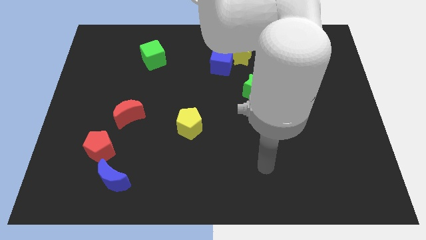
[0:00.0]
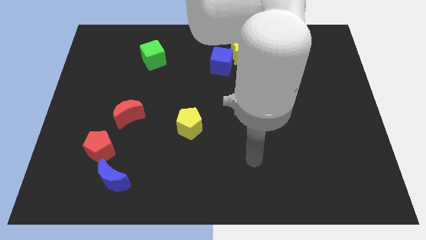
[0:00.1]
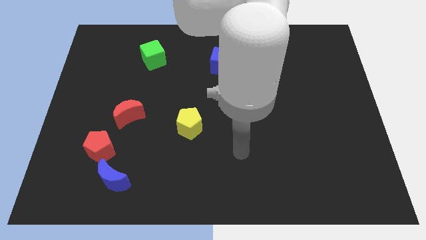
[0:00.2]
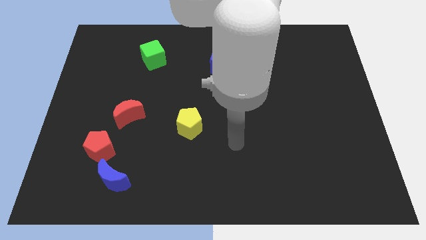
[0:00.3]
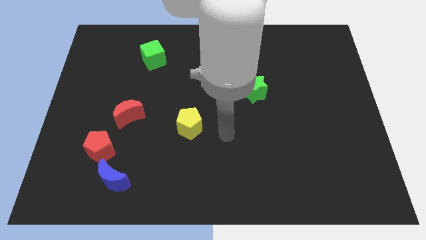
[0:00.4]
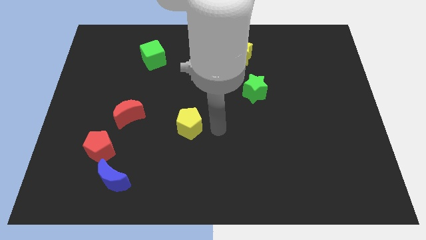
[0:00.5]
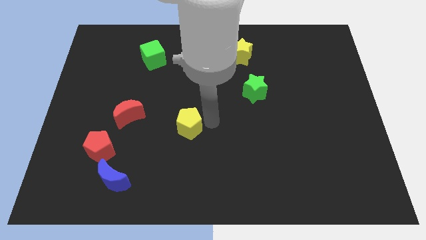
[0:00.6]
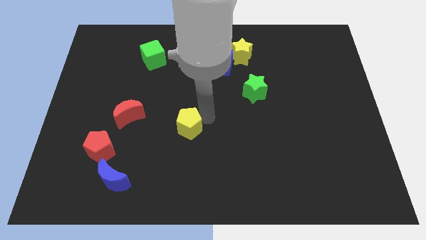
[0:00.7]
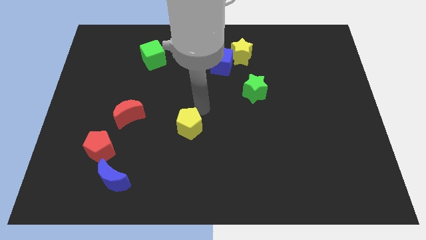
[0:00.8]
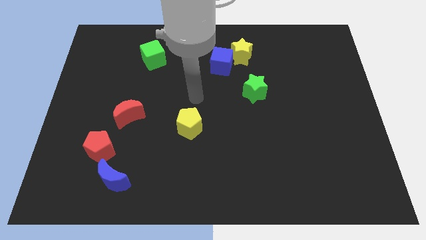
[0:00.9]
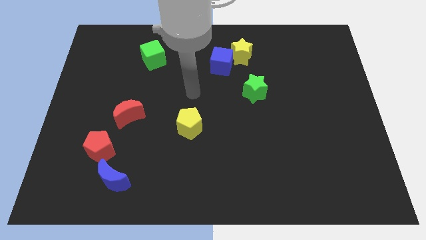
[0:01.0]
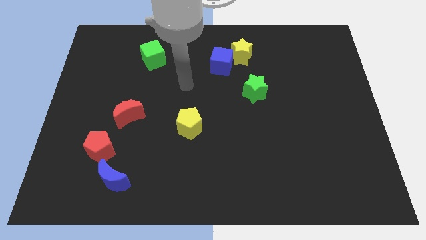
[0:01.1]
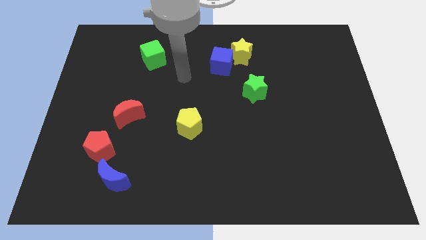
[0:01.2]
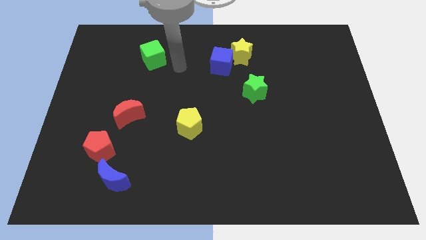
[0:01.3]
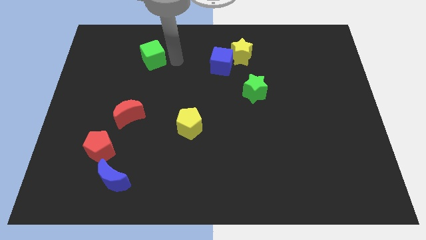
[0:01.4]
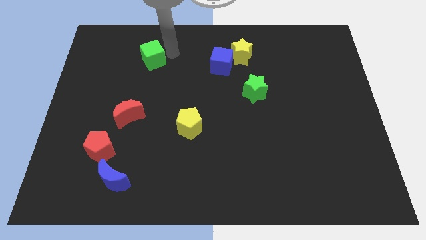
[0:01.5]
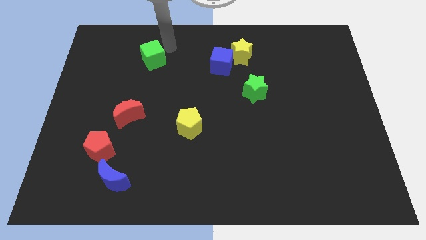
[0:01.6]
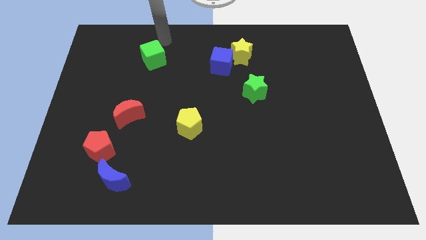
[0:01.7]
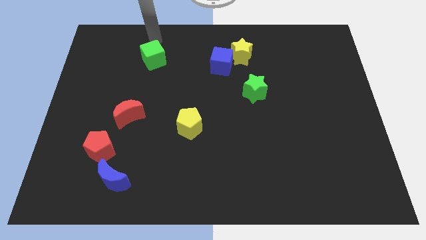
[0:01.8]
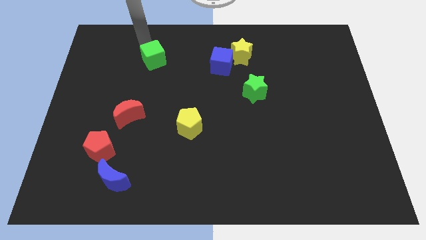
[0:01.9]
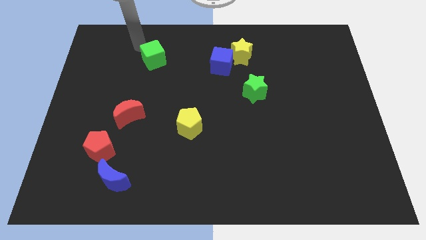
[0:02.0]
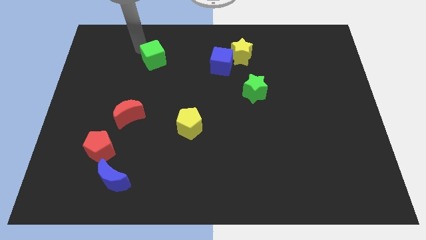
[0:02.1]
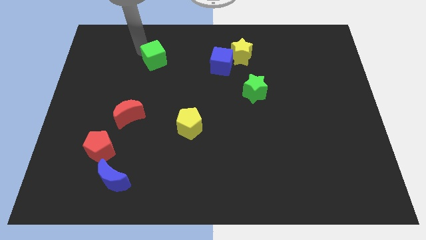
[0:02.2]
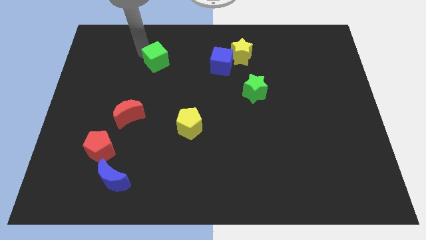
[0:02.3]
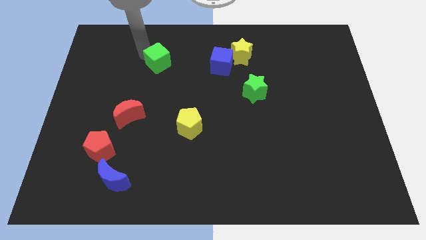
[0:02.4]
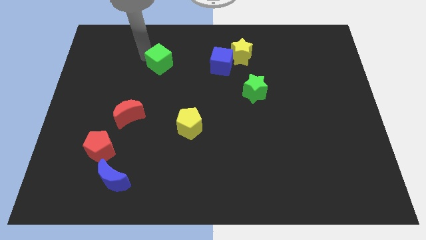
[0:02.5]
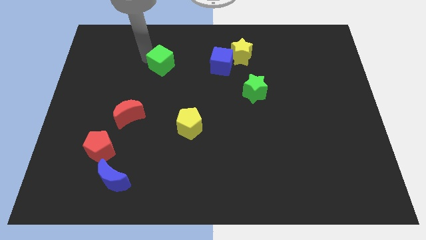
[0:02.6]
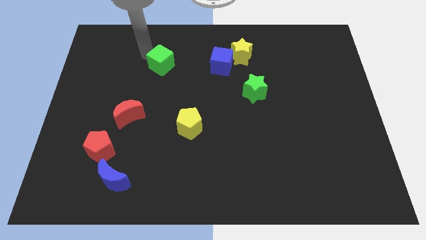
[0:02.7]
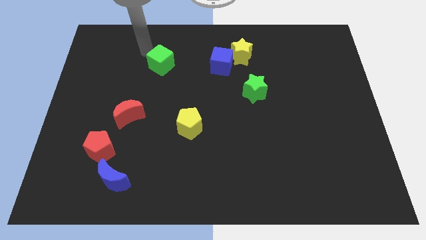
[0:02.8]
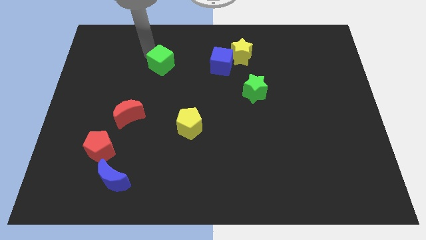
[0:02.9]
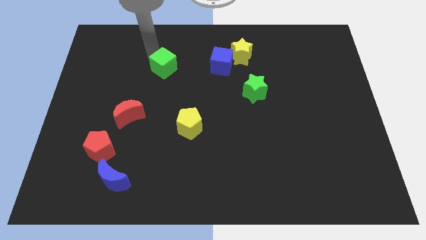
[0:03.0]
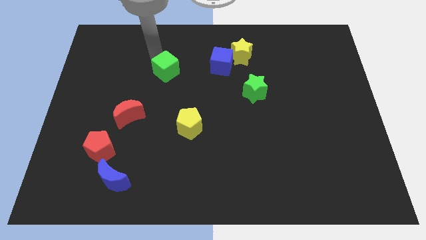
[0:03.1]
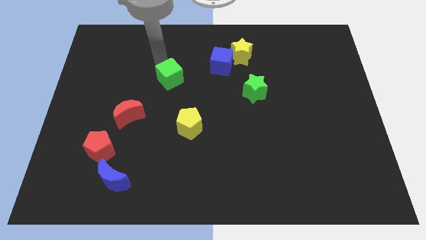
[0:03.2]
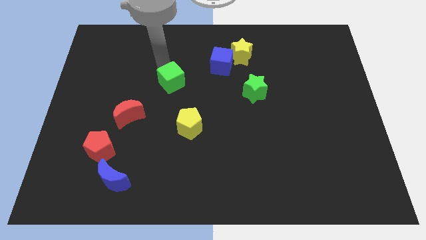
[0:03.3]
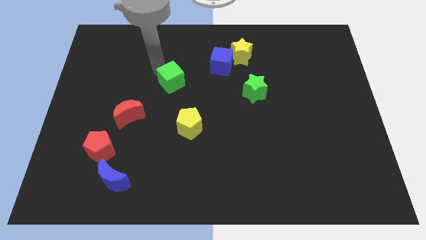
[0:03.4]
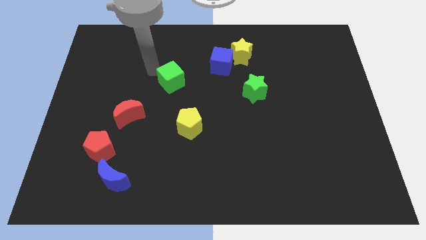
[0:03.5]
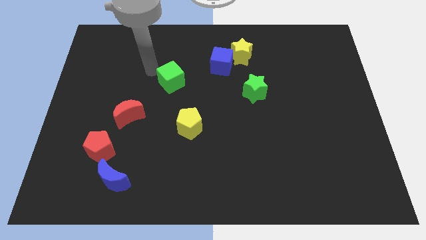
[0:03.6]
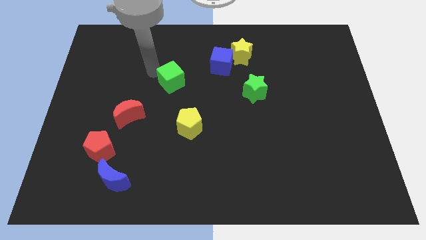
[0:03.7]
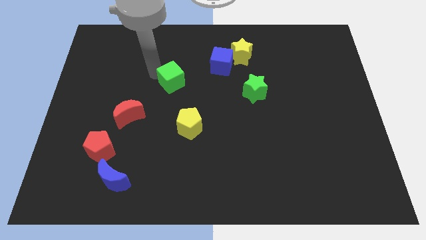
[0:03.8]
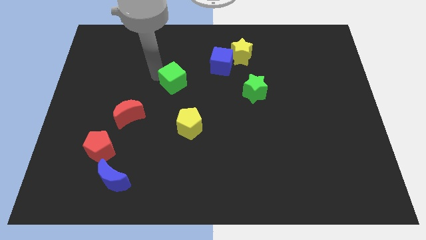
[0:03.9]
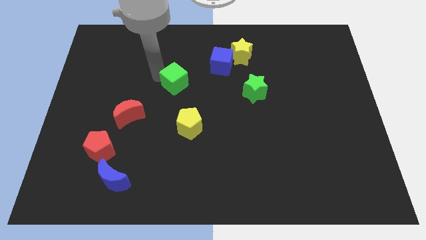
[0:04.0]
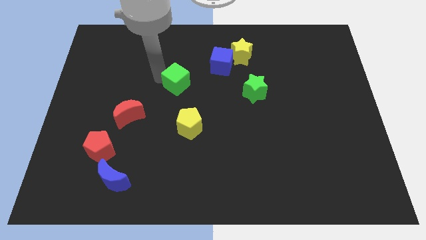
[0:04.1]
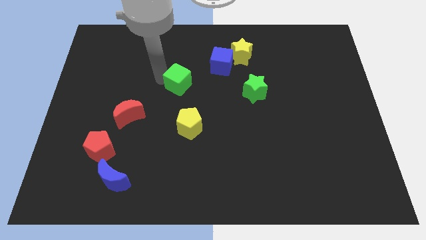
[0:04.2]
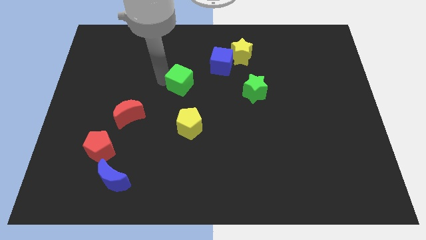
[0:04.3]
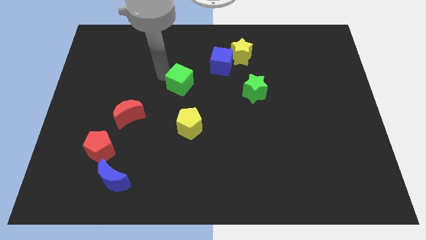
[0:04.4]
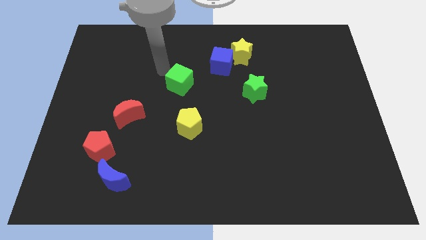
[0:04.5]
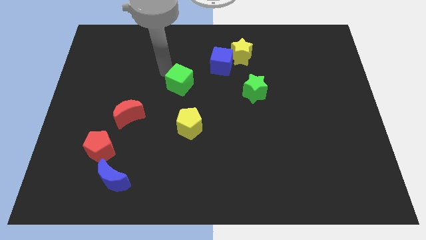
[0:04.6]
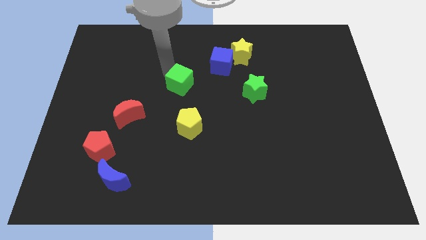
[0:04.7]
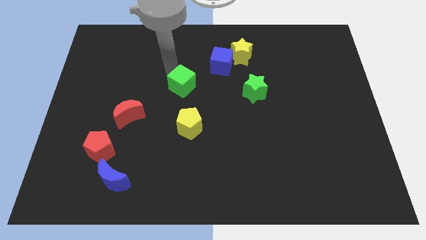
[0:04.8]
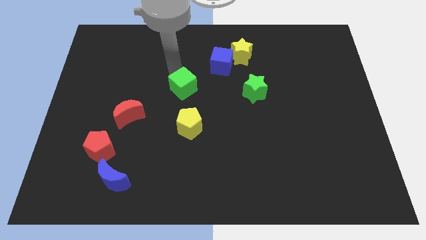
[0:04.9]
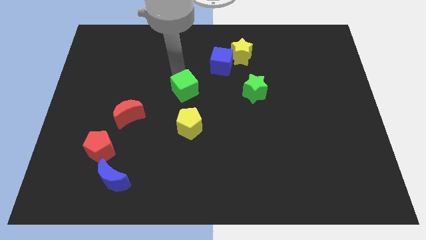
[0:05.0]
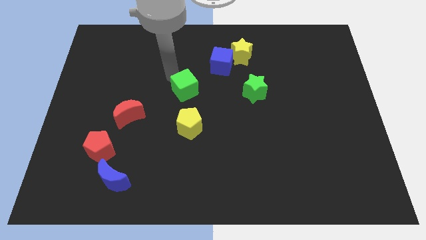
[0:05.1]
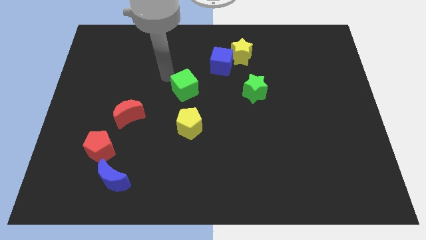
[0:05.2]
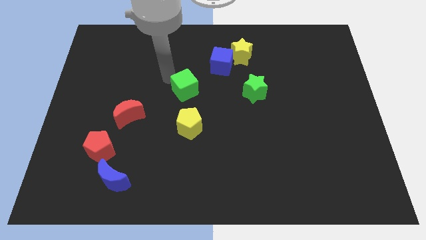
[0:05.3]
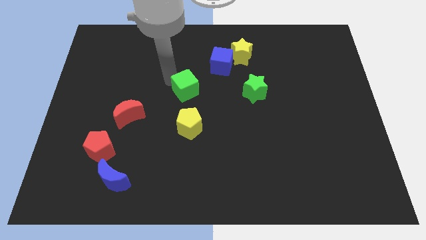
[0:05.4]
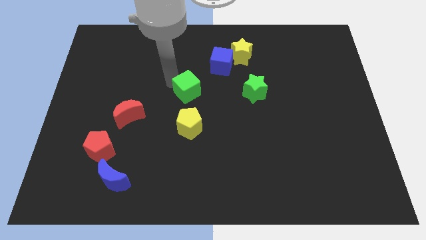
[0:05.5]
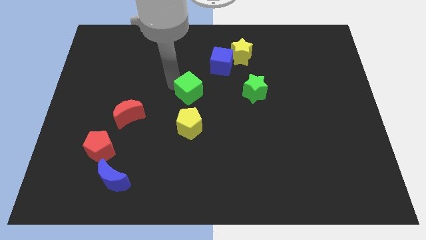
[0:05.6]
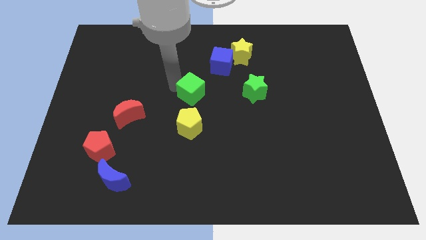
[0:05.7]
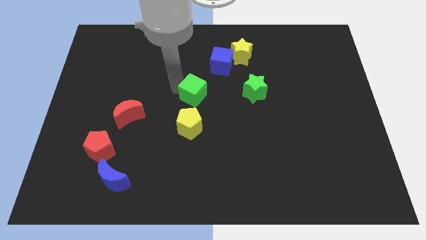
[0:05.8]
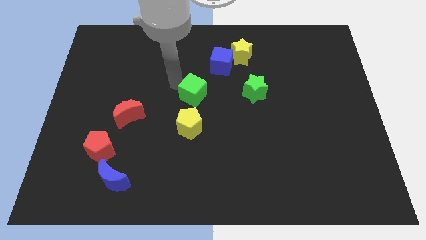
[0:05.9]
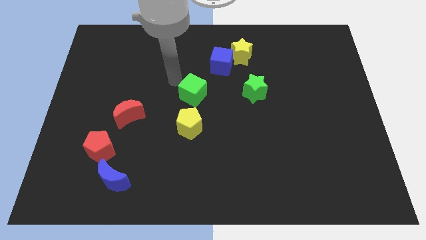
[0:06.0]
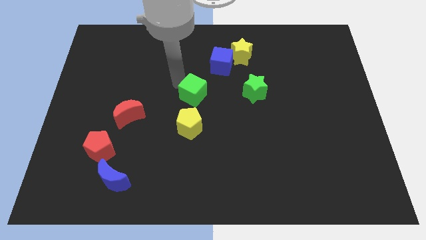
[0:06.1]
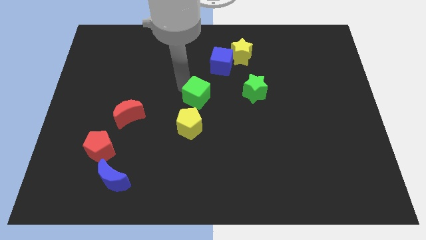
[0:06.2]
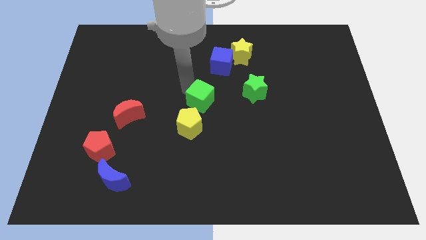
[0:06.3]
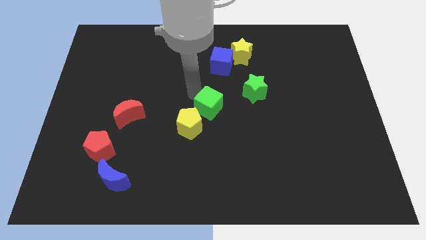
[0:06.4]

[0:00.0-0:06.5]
push the green cube down and then right

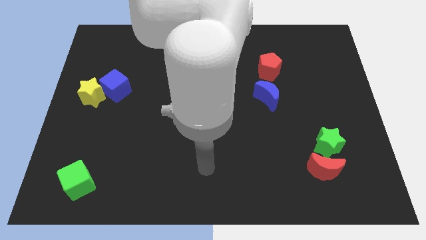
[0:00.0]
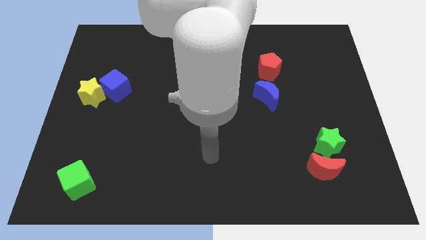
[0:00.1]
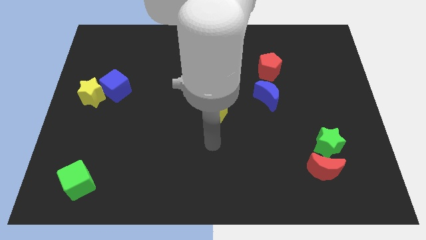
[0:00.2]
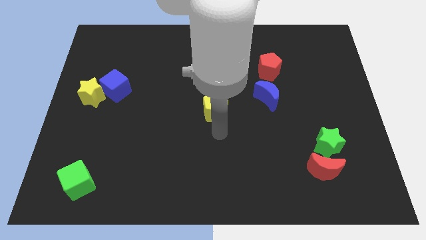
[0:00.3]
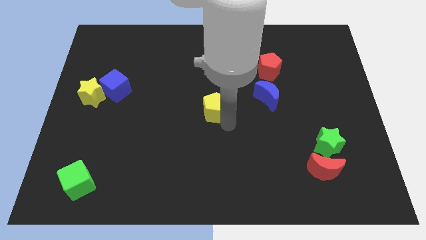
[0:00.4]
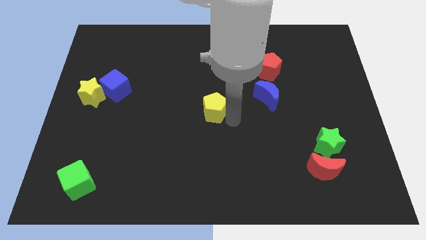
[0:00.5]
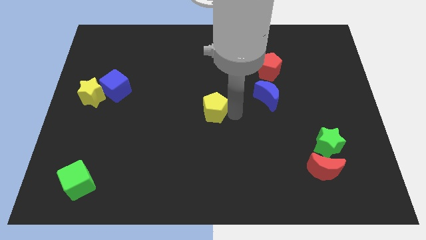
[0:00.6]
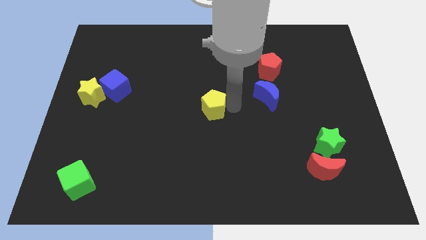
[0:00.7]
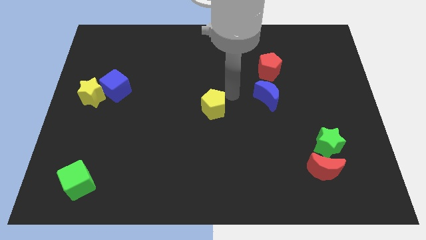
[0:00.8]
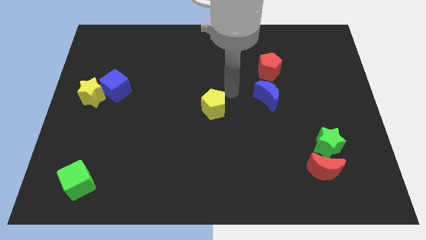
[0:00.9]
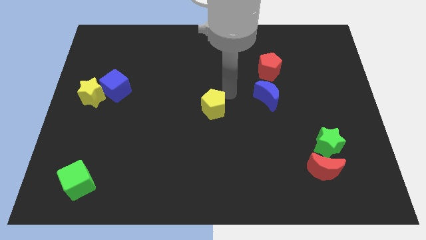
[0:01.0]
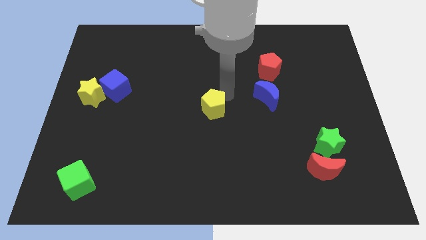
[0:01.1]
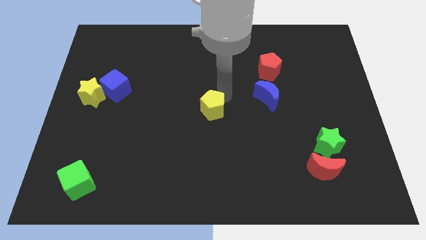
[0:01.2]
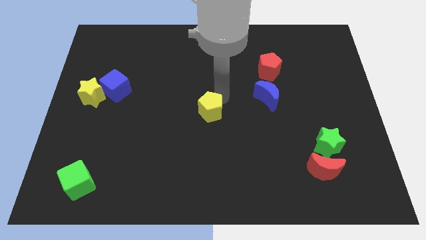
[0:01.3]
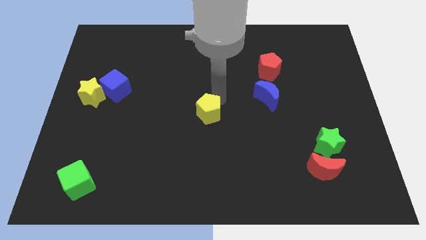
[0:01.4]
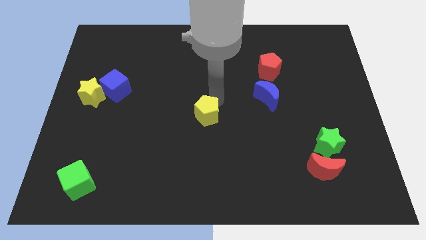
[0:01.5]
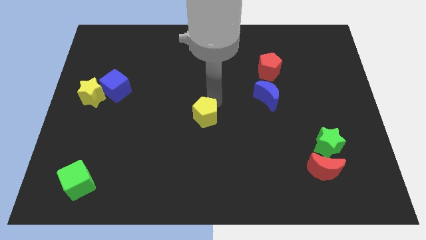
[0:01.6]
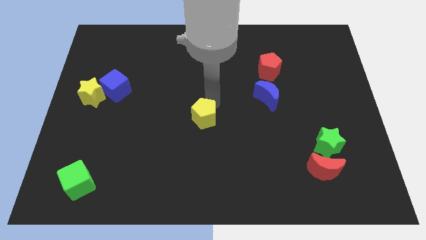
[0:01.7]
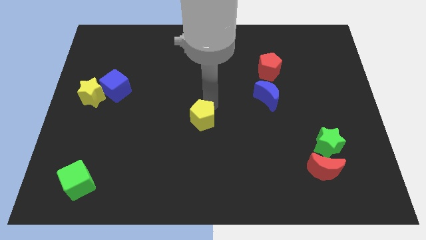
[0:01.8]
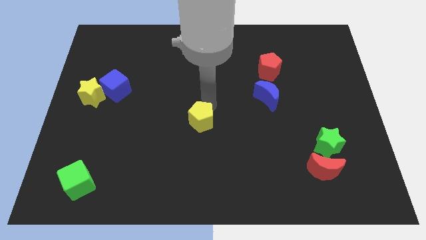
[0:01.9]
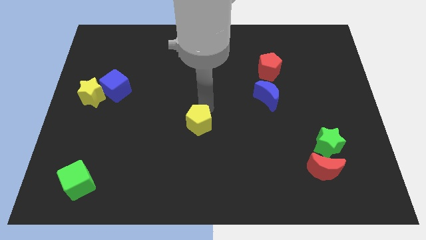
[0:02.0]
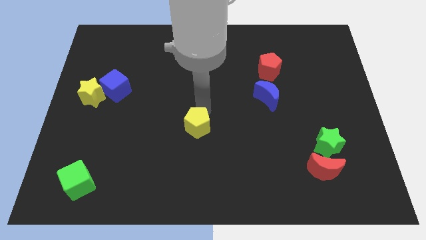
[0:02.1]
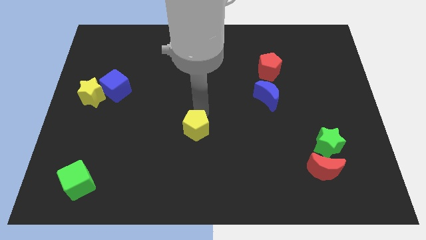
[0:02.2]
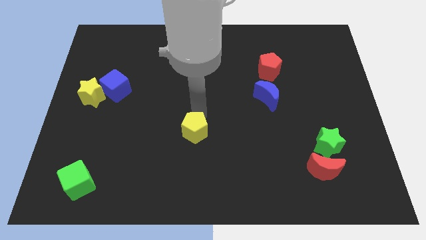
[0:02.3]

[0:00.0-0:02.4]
slide the yellow pentagon a little bit down and left diagonally
